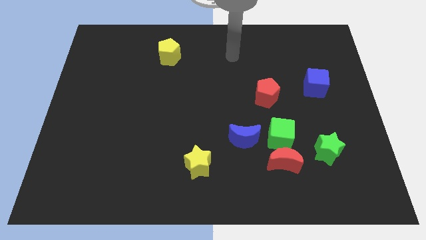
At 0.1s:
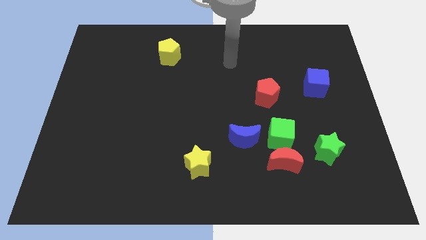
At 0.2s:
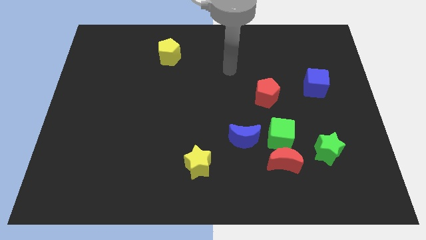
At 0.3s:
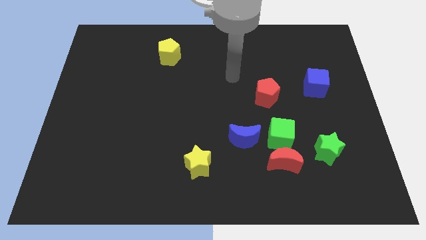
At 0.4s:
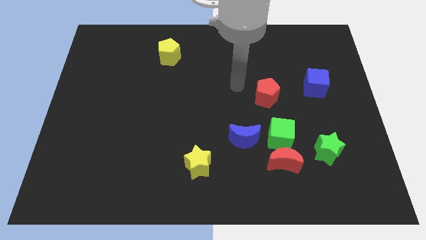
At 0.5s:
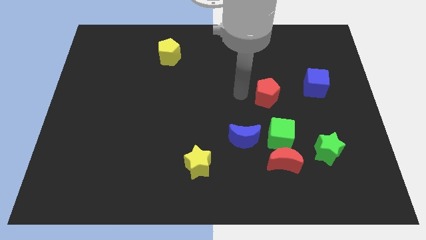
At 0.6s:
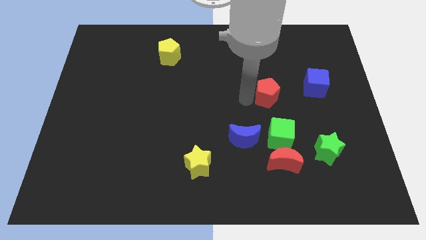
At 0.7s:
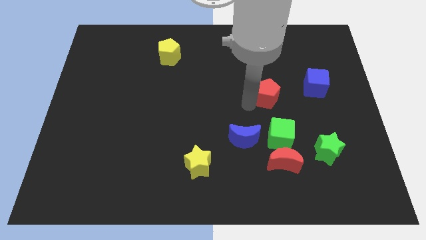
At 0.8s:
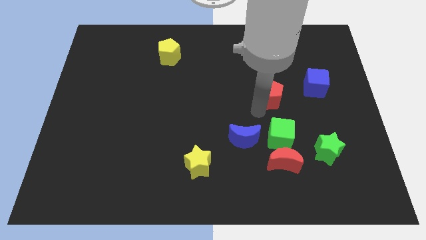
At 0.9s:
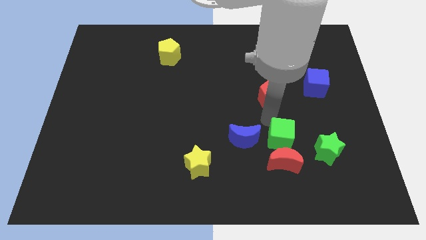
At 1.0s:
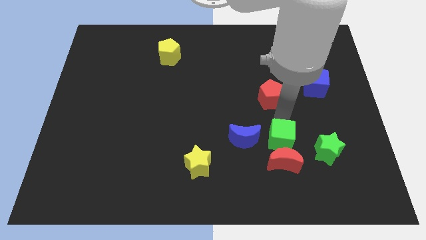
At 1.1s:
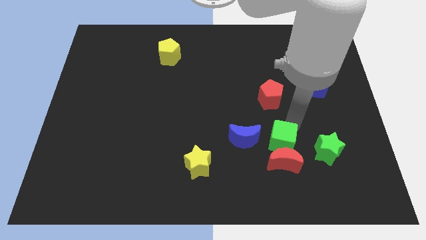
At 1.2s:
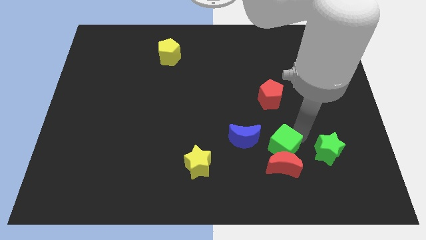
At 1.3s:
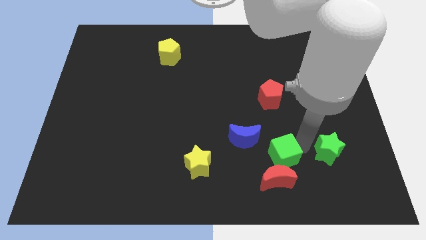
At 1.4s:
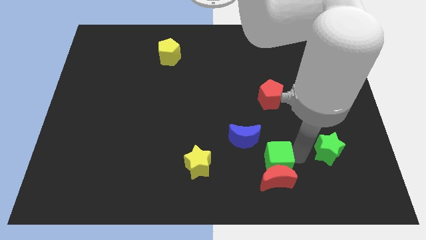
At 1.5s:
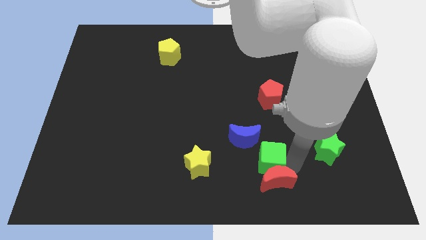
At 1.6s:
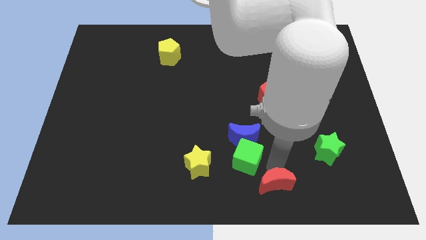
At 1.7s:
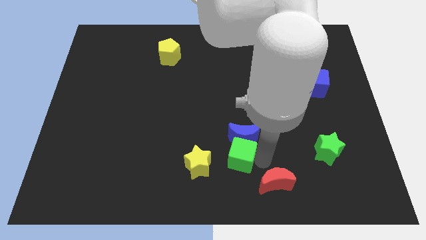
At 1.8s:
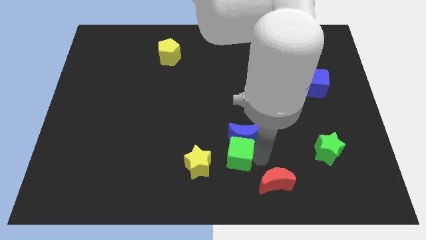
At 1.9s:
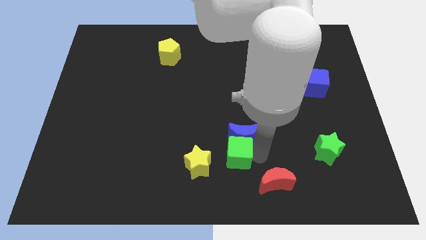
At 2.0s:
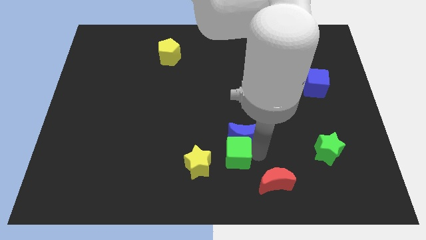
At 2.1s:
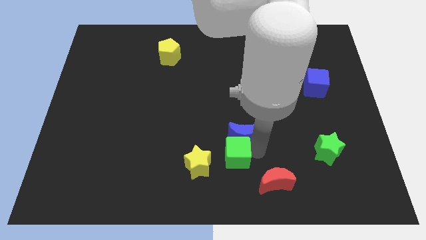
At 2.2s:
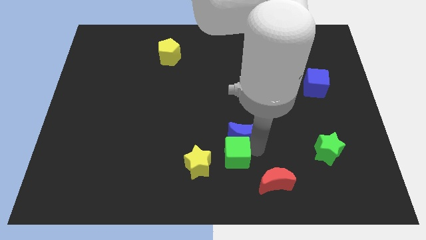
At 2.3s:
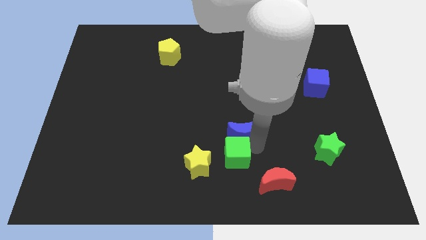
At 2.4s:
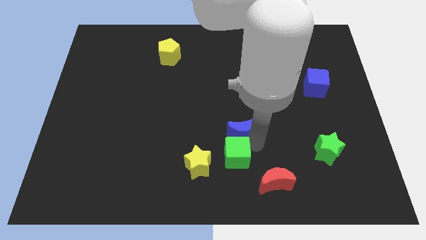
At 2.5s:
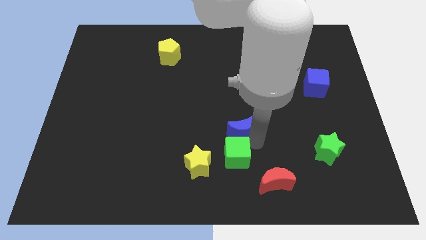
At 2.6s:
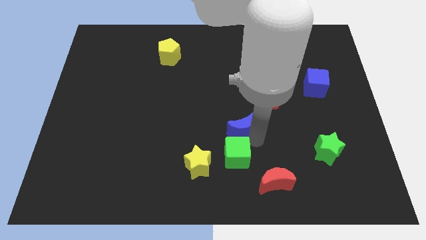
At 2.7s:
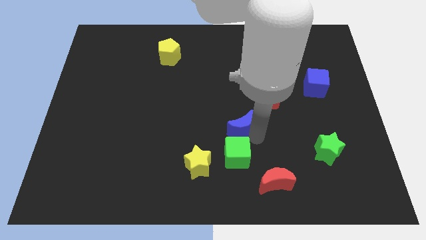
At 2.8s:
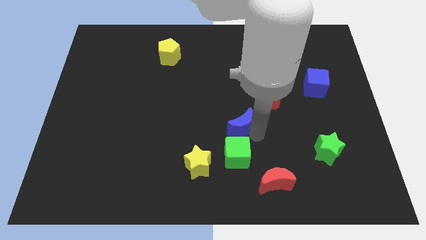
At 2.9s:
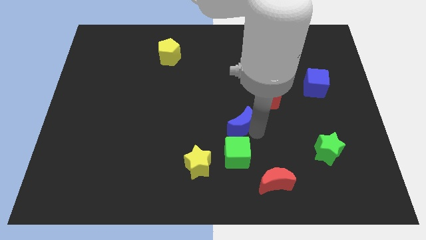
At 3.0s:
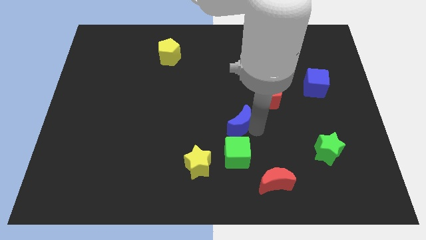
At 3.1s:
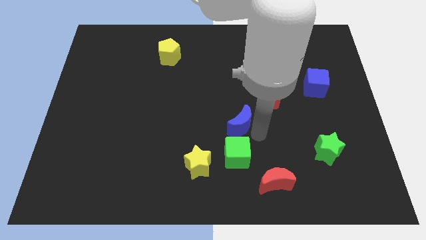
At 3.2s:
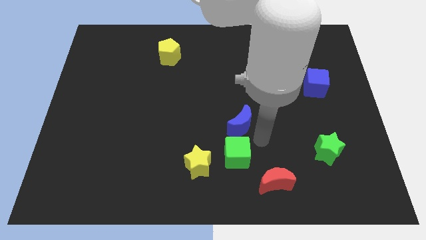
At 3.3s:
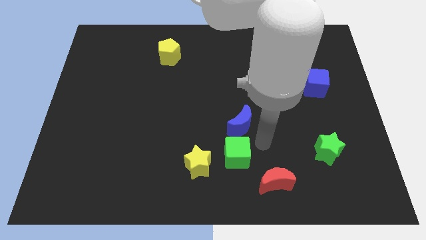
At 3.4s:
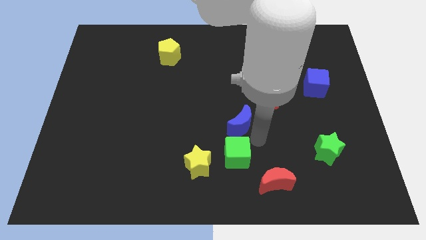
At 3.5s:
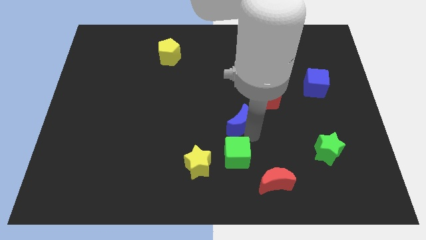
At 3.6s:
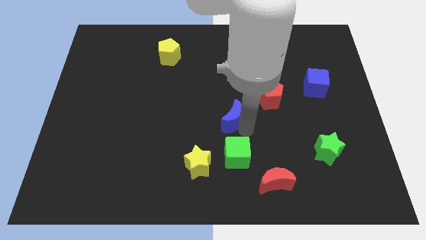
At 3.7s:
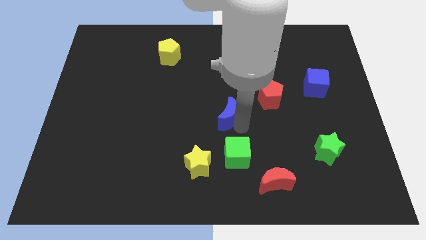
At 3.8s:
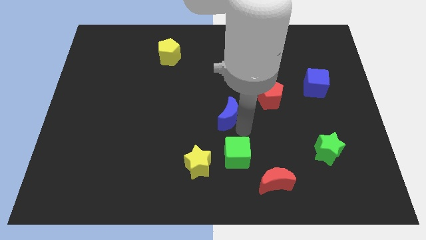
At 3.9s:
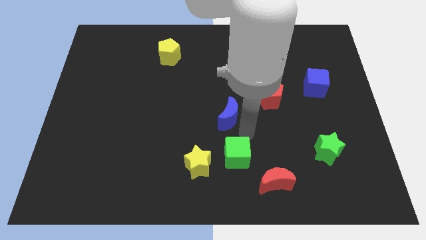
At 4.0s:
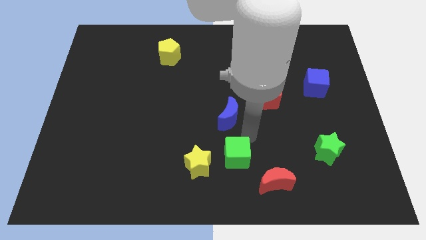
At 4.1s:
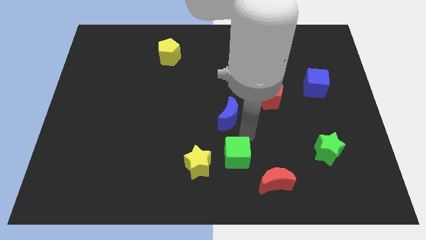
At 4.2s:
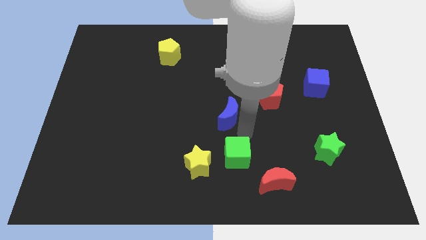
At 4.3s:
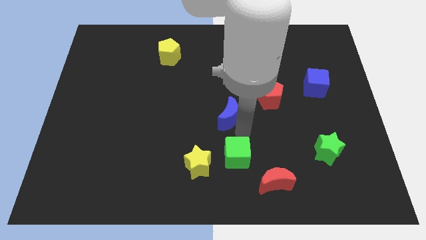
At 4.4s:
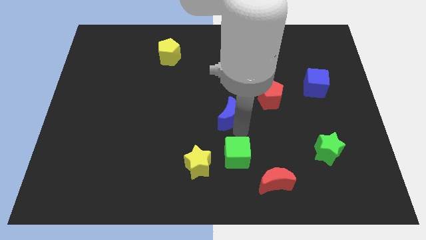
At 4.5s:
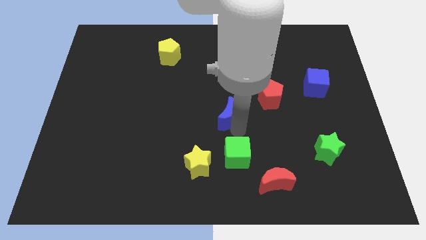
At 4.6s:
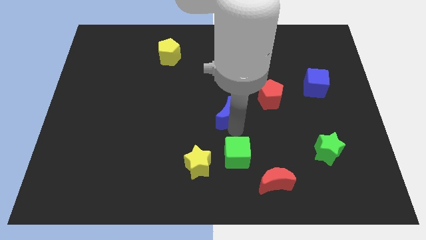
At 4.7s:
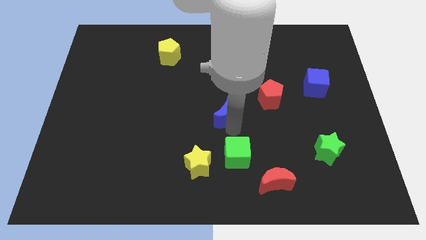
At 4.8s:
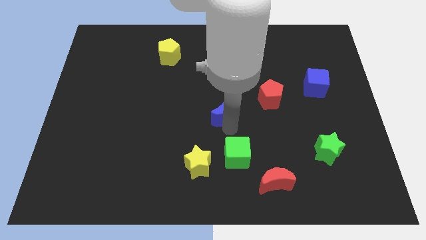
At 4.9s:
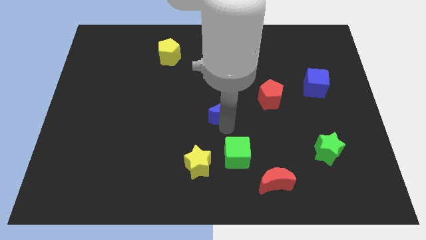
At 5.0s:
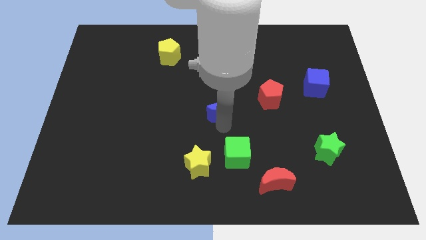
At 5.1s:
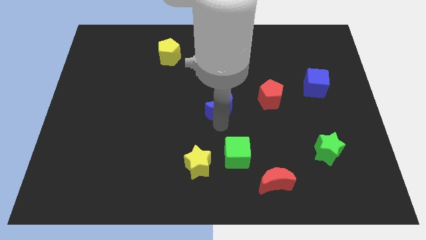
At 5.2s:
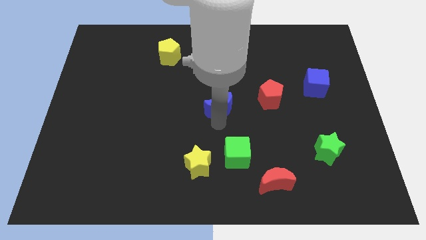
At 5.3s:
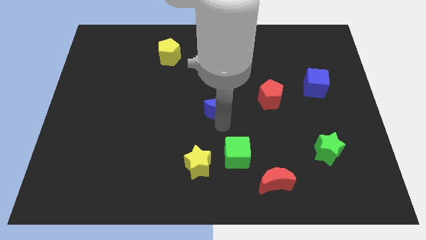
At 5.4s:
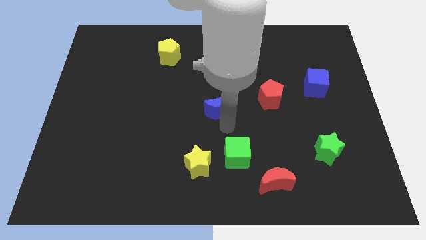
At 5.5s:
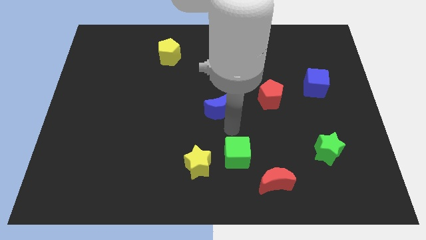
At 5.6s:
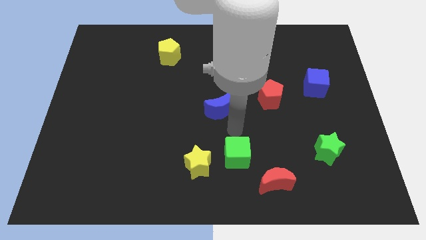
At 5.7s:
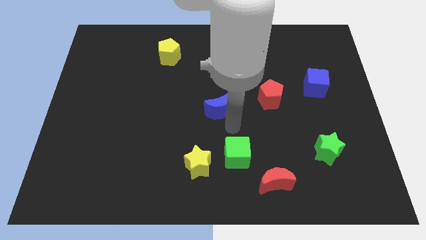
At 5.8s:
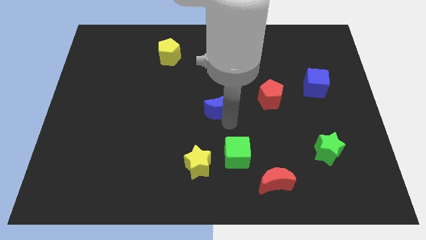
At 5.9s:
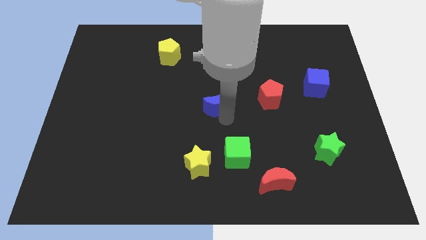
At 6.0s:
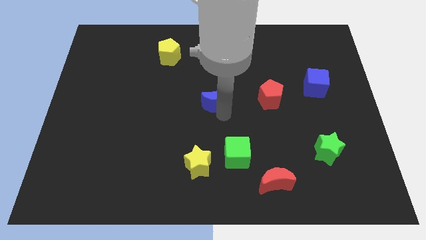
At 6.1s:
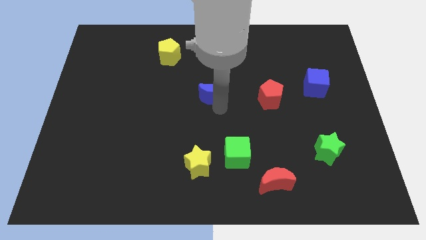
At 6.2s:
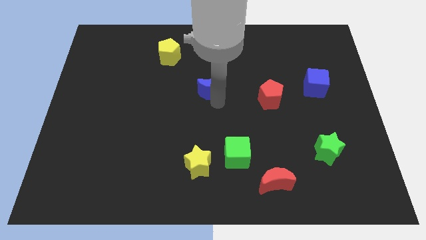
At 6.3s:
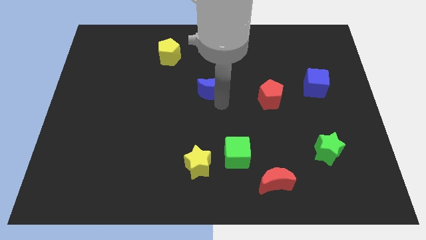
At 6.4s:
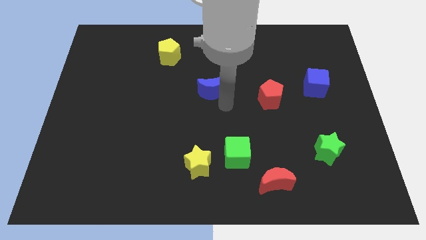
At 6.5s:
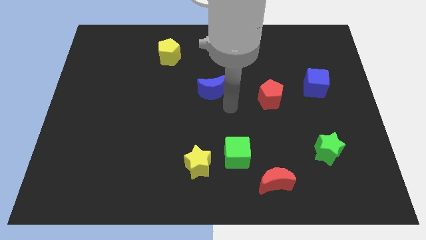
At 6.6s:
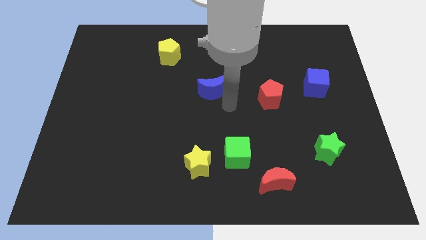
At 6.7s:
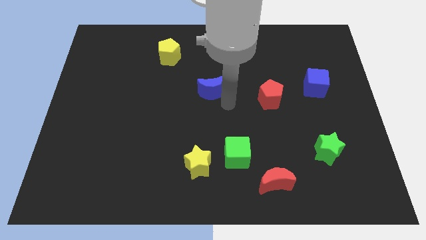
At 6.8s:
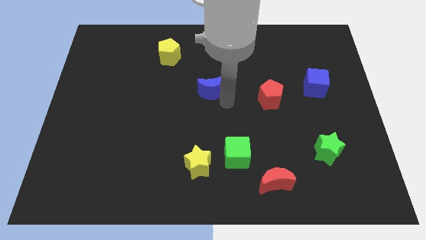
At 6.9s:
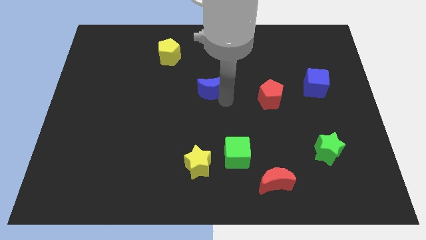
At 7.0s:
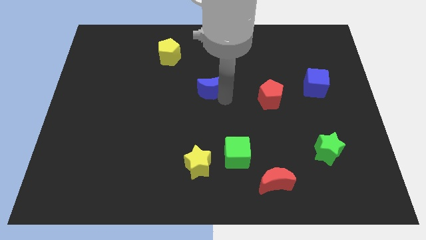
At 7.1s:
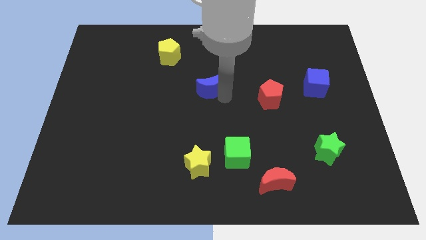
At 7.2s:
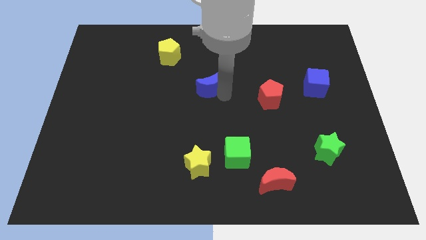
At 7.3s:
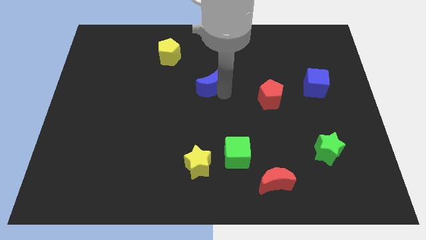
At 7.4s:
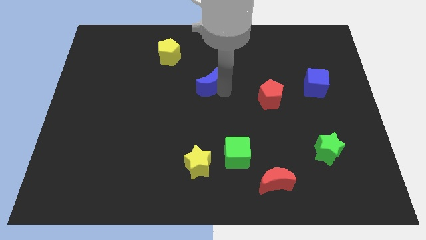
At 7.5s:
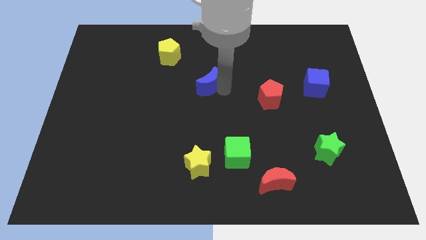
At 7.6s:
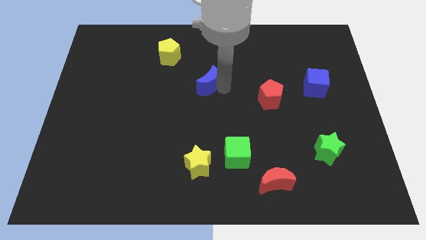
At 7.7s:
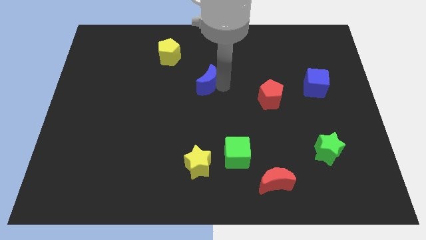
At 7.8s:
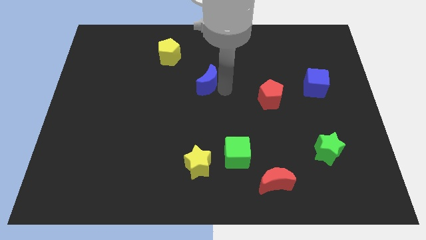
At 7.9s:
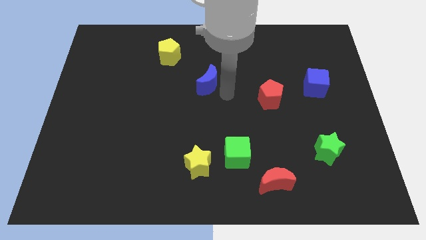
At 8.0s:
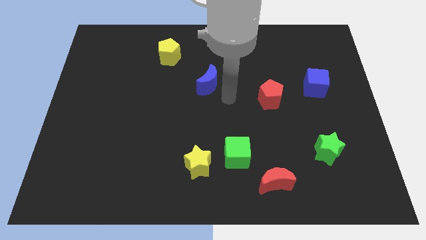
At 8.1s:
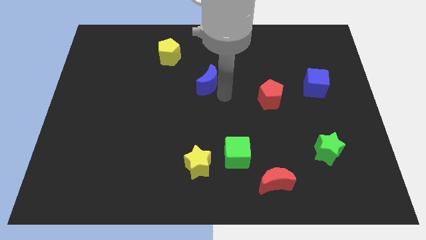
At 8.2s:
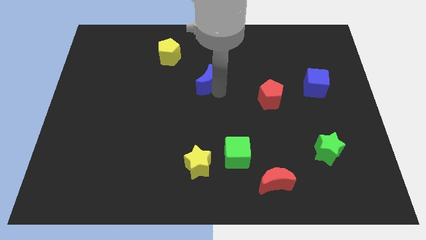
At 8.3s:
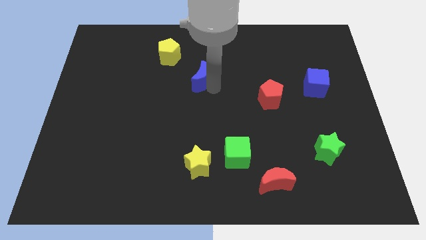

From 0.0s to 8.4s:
slide the blue moon diagonally down and to the right of the yellow pentagon
